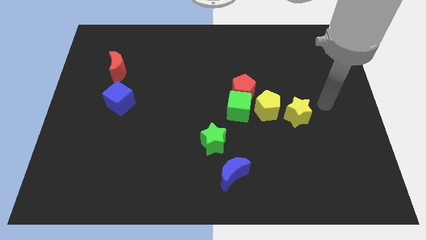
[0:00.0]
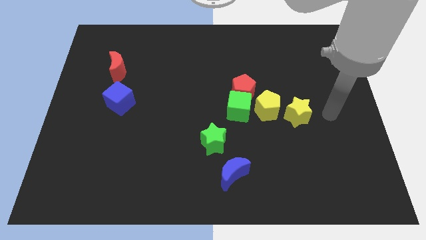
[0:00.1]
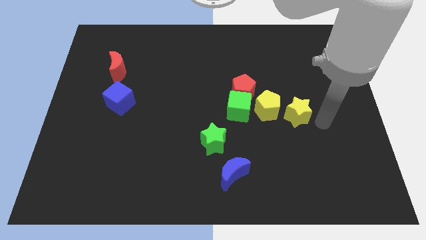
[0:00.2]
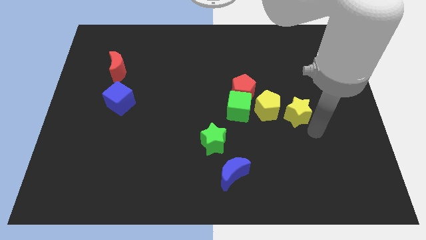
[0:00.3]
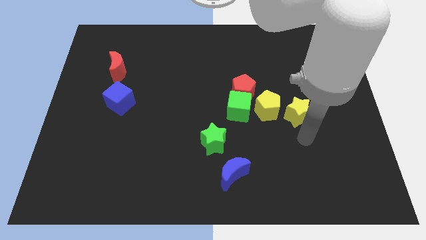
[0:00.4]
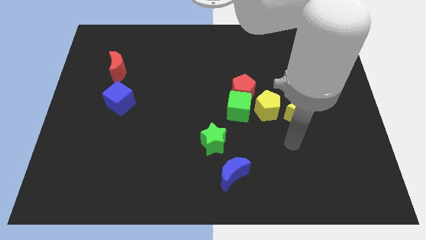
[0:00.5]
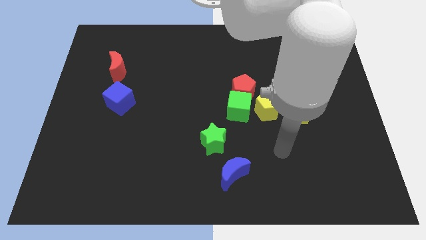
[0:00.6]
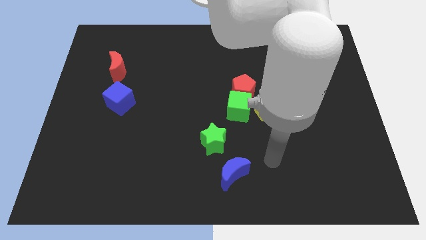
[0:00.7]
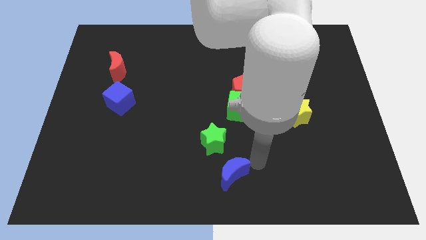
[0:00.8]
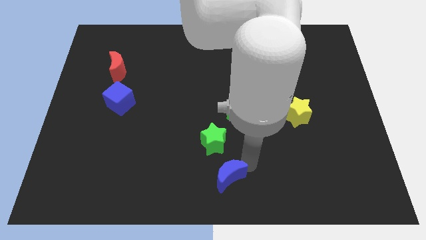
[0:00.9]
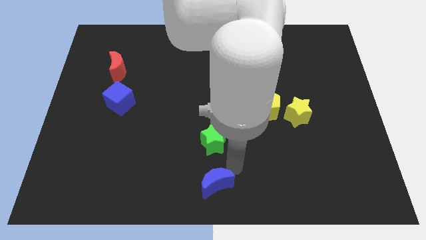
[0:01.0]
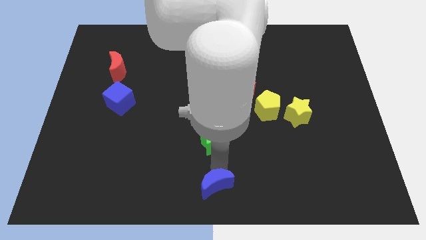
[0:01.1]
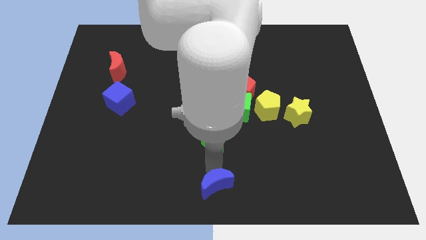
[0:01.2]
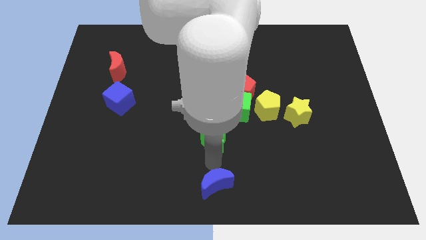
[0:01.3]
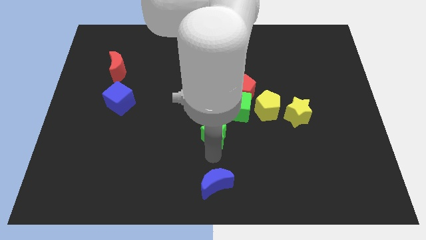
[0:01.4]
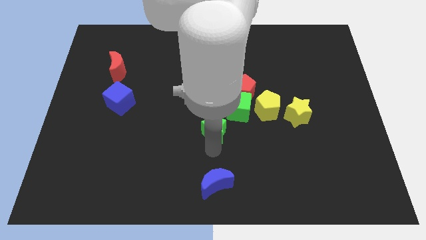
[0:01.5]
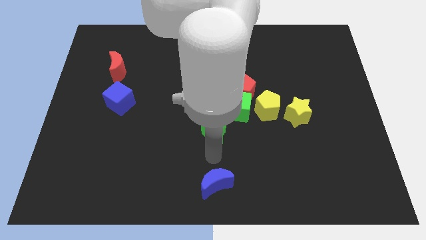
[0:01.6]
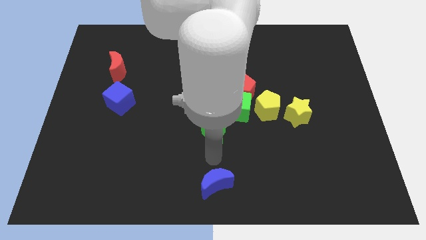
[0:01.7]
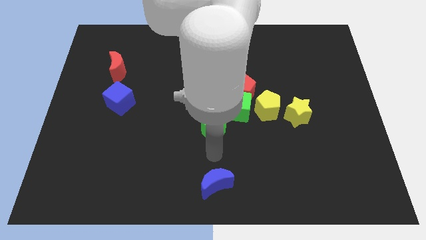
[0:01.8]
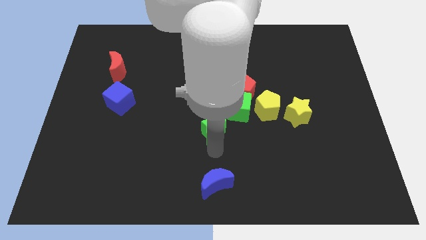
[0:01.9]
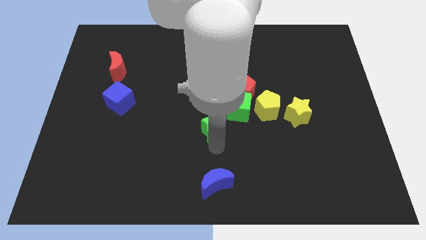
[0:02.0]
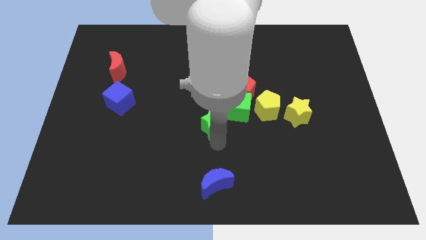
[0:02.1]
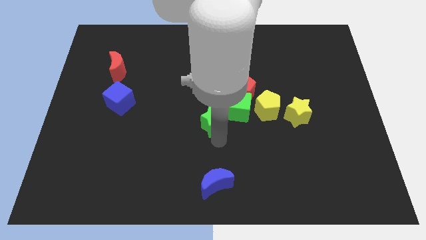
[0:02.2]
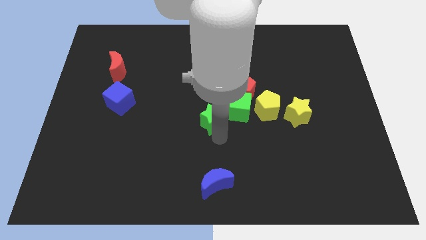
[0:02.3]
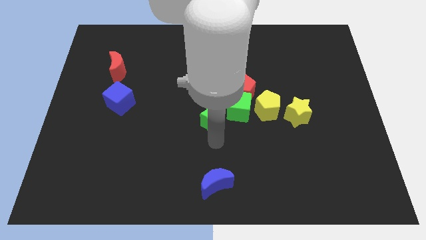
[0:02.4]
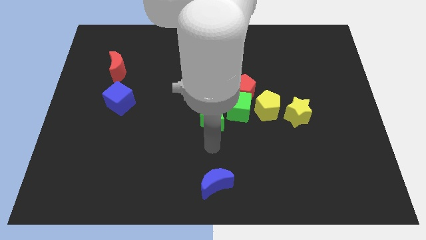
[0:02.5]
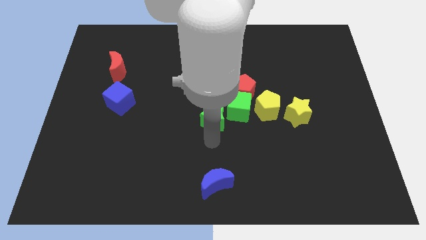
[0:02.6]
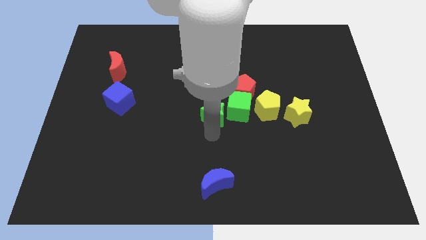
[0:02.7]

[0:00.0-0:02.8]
move the green star slightly upwards

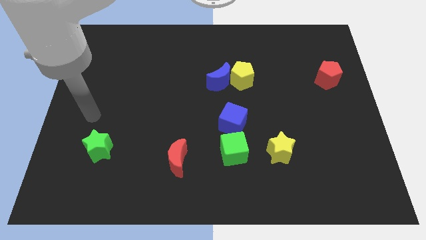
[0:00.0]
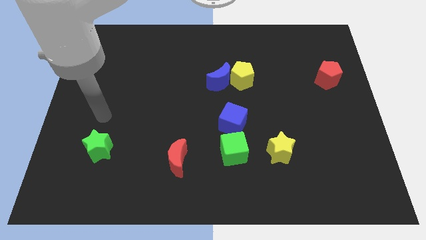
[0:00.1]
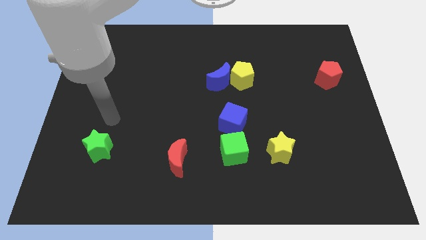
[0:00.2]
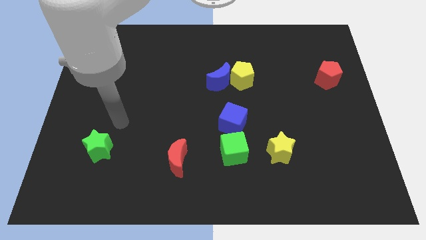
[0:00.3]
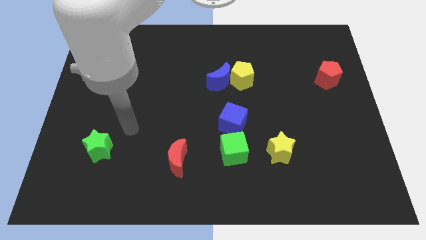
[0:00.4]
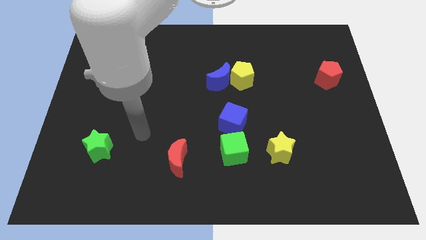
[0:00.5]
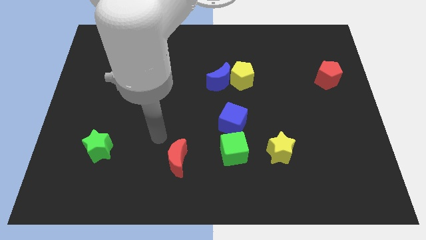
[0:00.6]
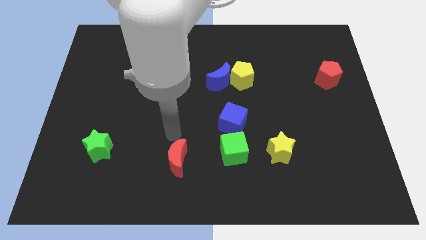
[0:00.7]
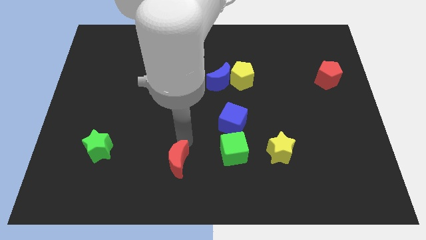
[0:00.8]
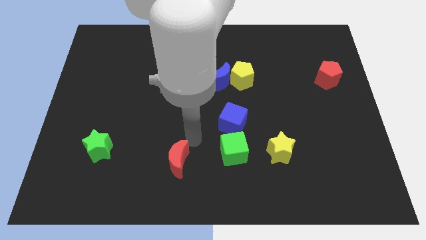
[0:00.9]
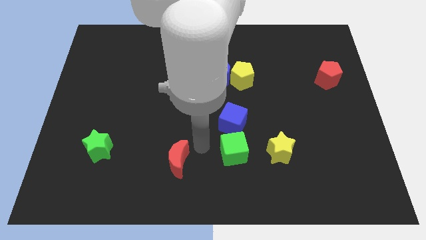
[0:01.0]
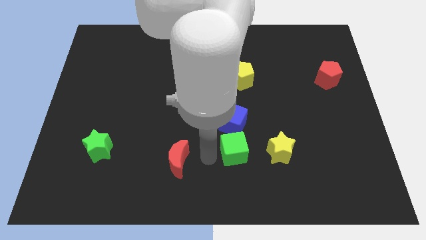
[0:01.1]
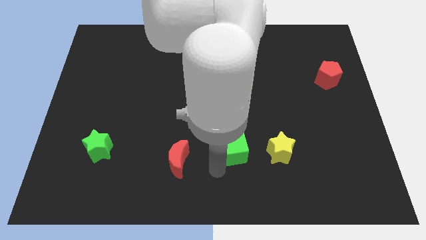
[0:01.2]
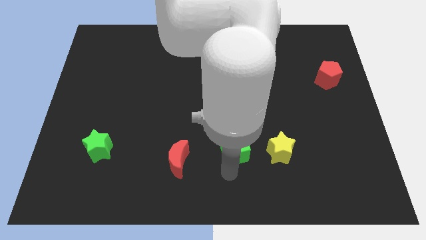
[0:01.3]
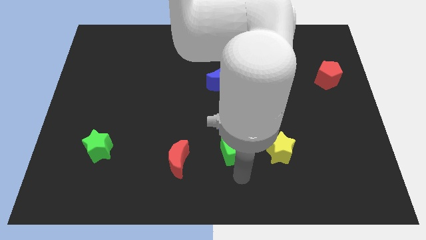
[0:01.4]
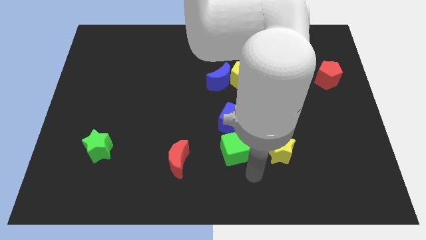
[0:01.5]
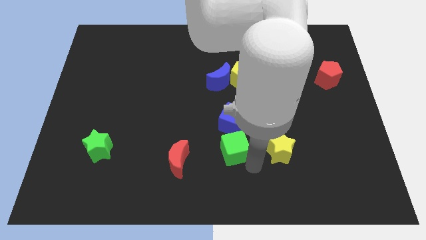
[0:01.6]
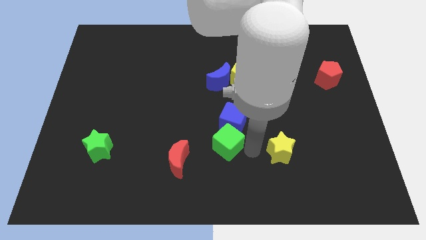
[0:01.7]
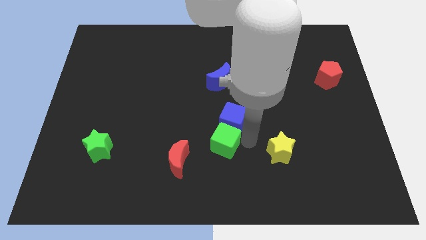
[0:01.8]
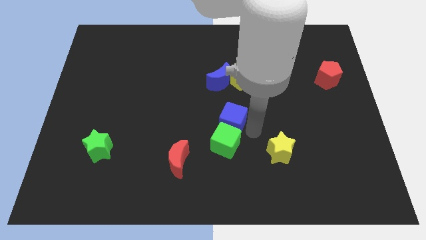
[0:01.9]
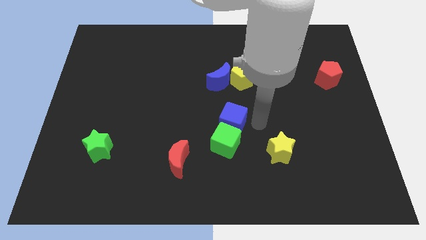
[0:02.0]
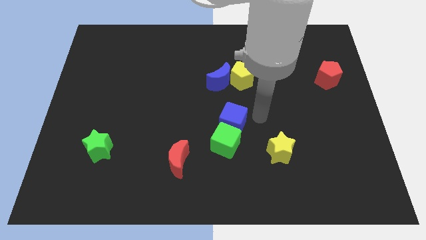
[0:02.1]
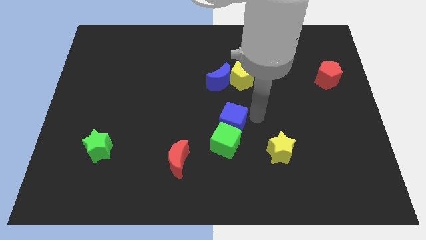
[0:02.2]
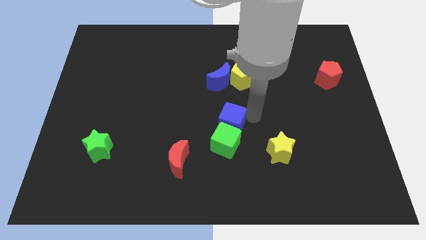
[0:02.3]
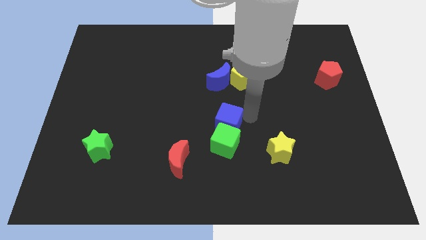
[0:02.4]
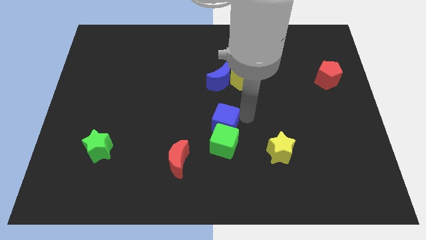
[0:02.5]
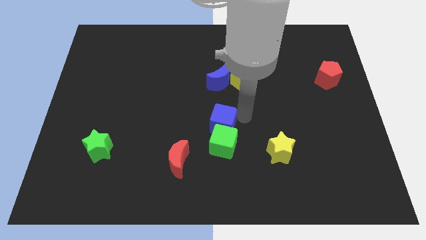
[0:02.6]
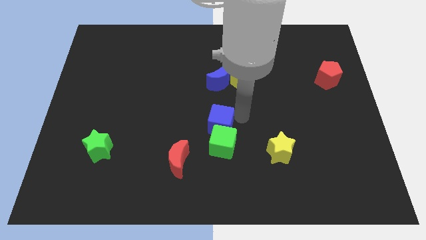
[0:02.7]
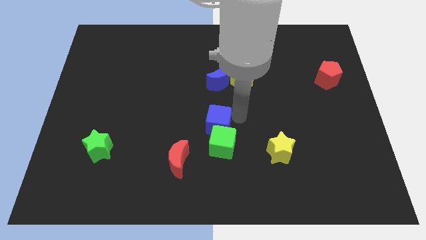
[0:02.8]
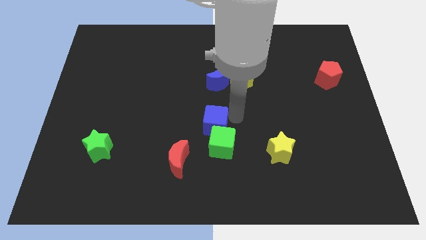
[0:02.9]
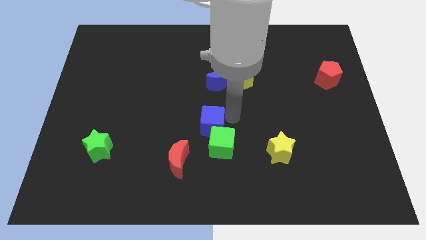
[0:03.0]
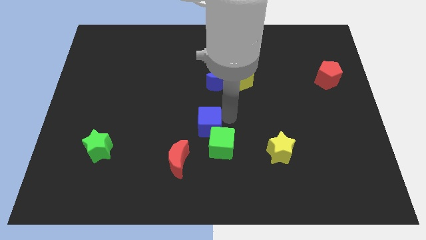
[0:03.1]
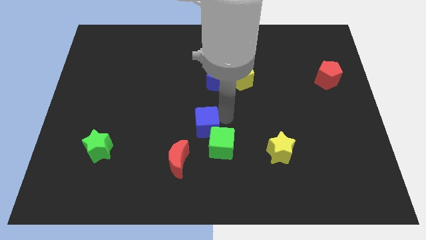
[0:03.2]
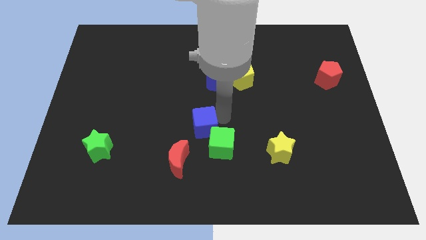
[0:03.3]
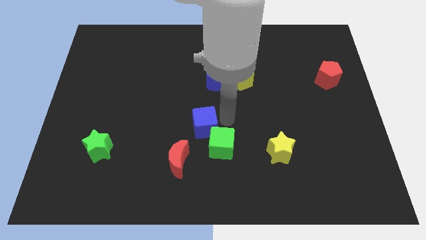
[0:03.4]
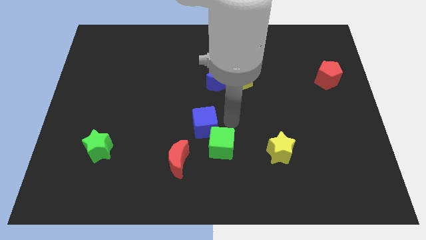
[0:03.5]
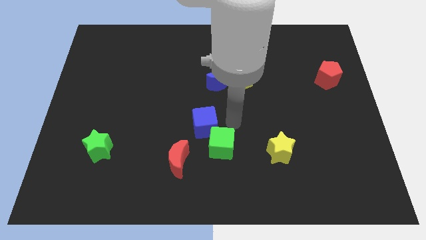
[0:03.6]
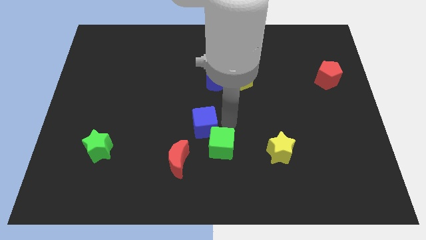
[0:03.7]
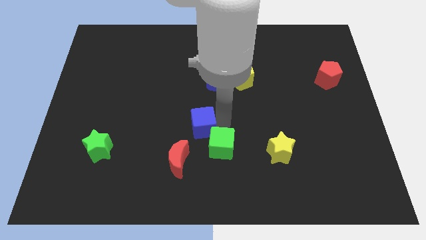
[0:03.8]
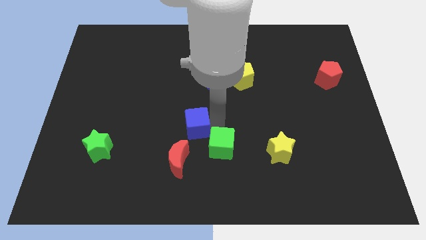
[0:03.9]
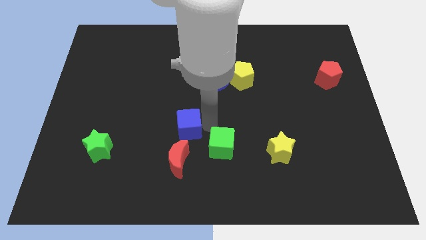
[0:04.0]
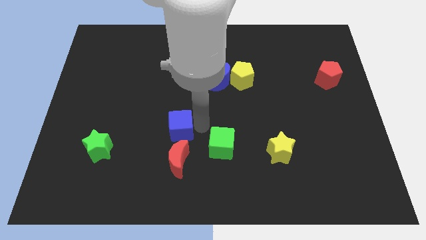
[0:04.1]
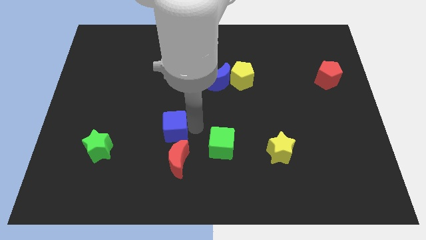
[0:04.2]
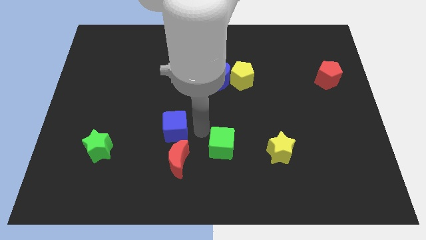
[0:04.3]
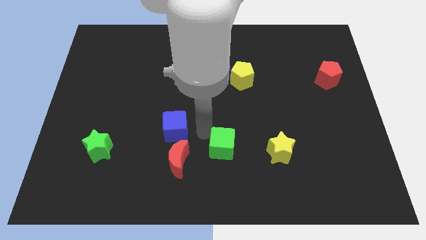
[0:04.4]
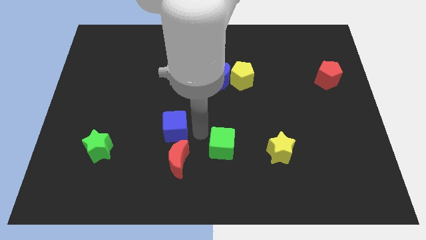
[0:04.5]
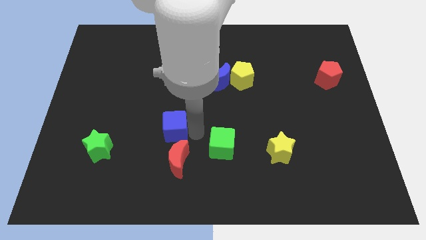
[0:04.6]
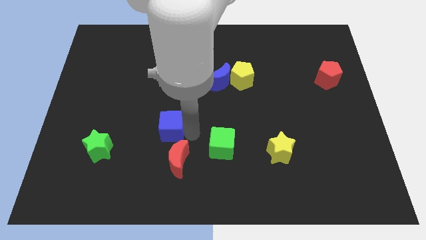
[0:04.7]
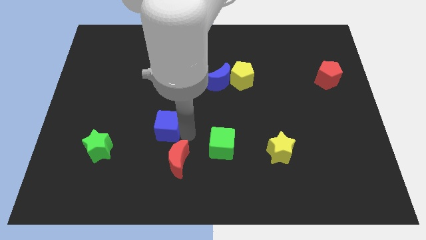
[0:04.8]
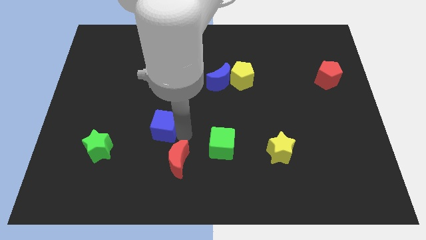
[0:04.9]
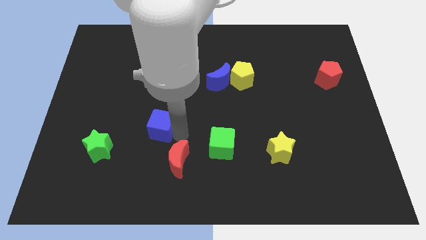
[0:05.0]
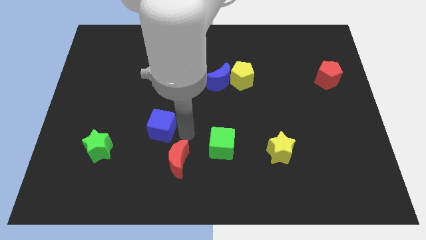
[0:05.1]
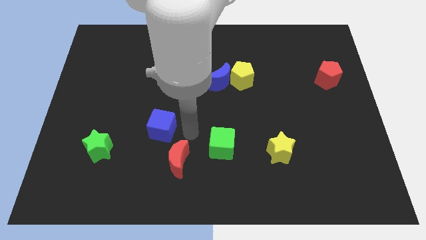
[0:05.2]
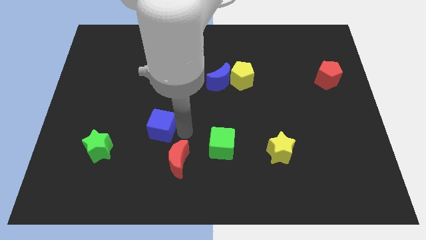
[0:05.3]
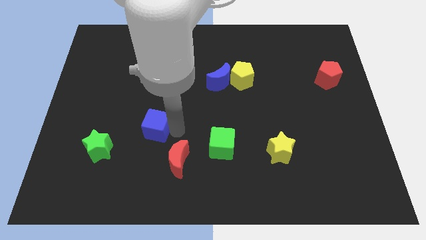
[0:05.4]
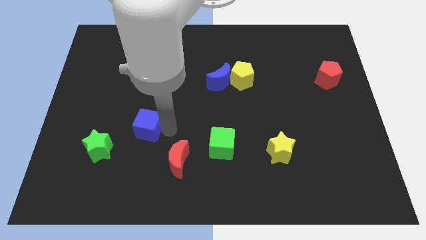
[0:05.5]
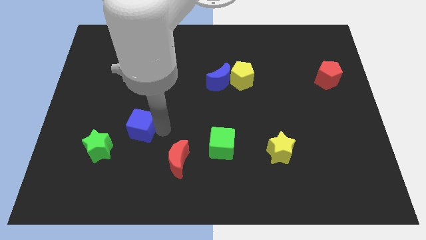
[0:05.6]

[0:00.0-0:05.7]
move the blue cube left
